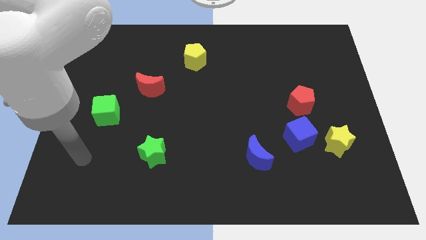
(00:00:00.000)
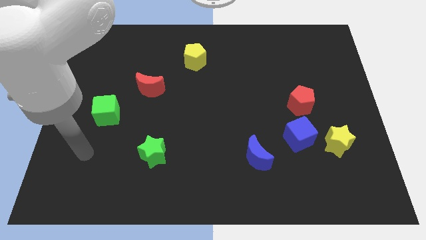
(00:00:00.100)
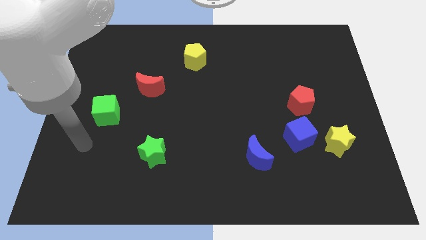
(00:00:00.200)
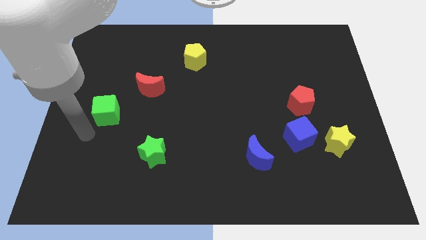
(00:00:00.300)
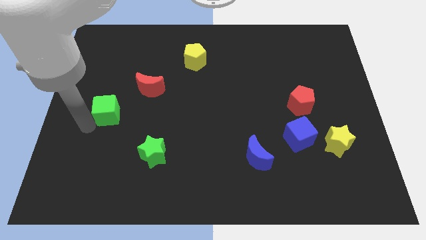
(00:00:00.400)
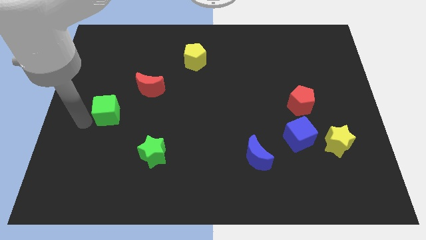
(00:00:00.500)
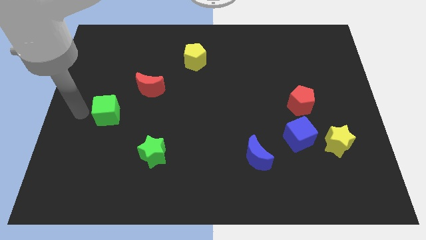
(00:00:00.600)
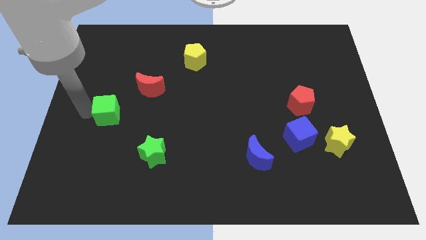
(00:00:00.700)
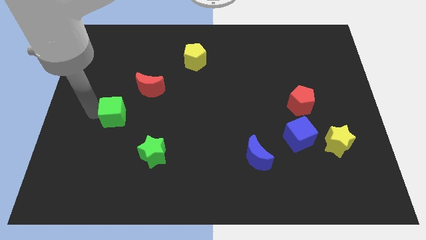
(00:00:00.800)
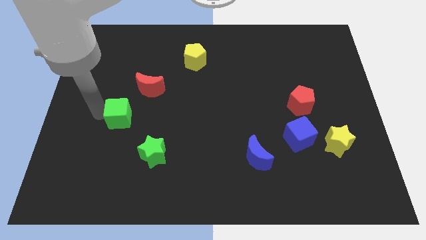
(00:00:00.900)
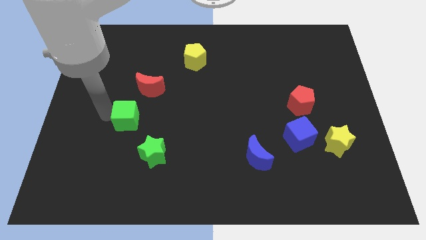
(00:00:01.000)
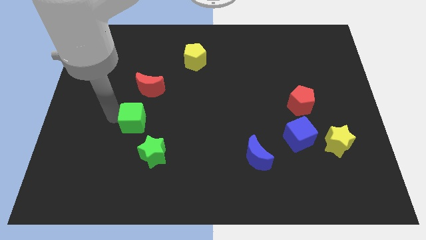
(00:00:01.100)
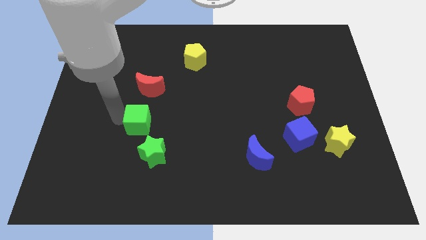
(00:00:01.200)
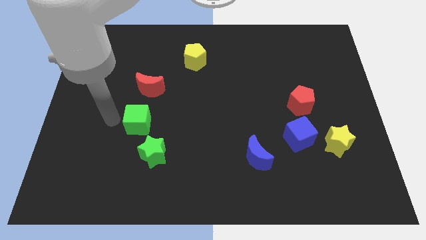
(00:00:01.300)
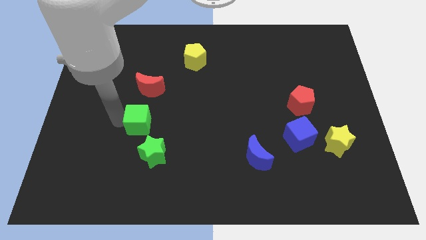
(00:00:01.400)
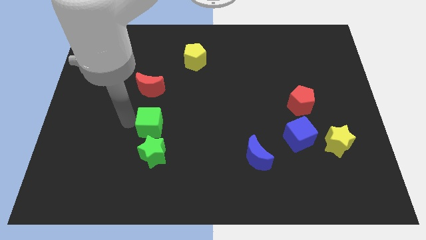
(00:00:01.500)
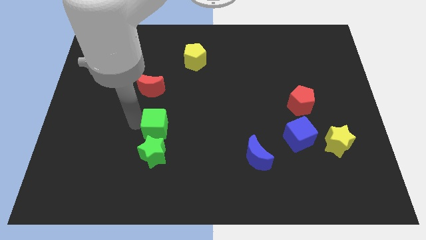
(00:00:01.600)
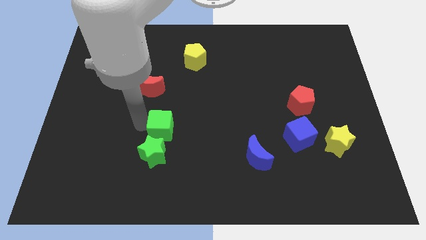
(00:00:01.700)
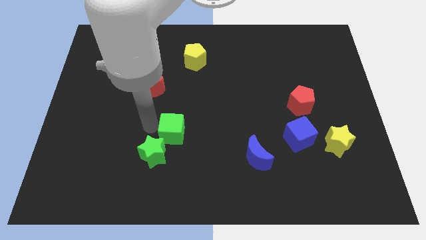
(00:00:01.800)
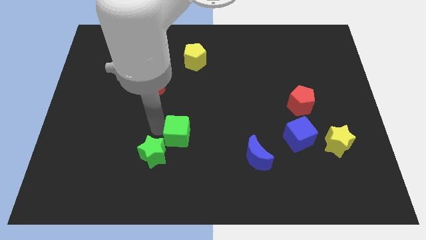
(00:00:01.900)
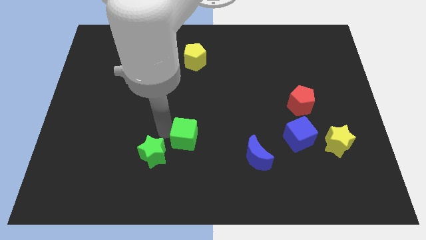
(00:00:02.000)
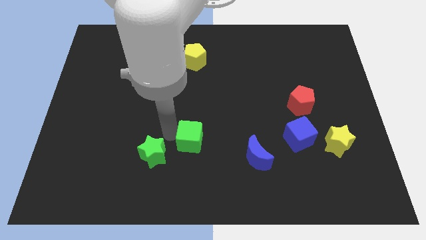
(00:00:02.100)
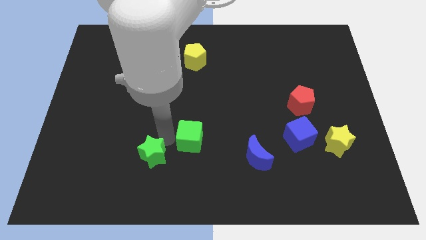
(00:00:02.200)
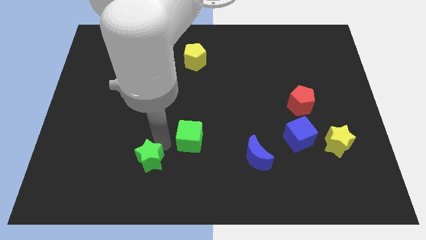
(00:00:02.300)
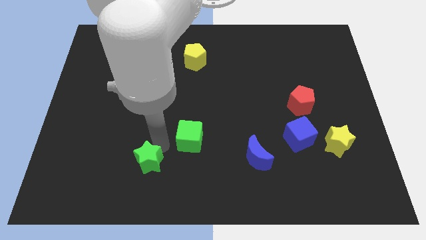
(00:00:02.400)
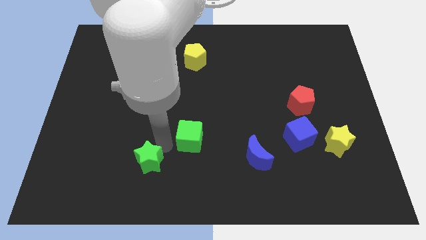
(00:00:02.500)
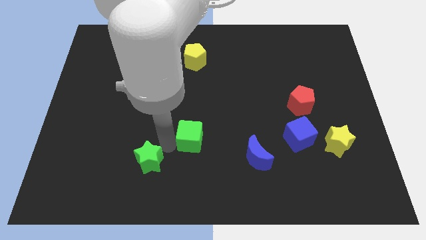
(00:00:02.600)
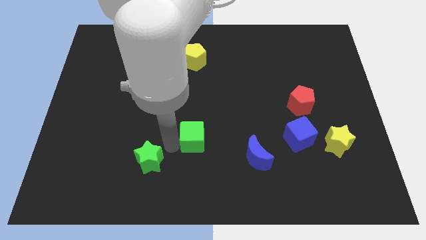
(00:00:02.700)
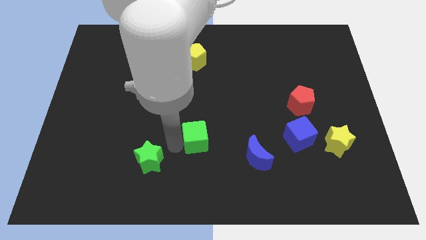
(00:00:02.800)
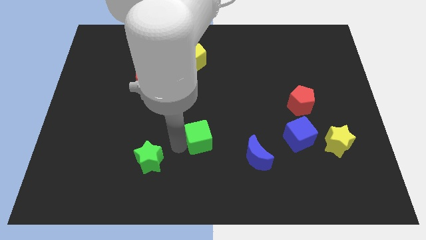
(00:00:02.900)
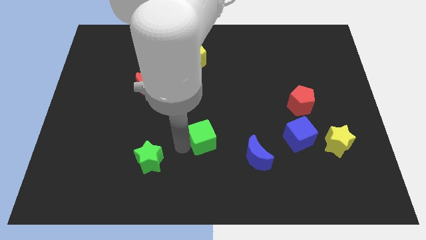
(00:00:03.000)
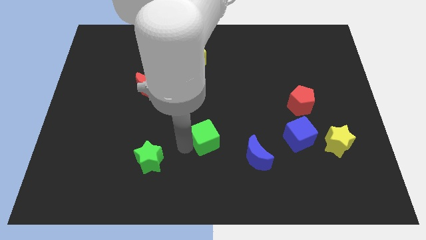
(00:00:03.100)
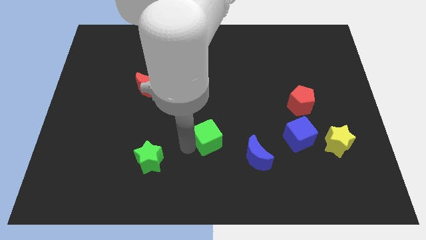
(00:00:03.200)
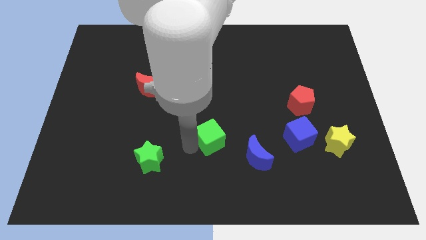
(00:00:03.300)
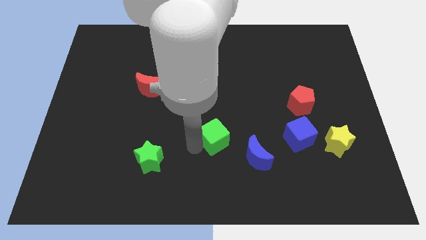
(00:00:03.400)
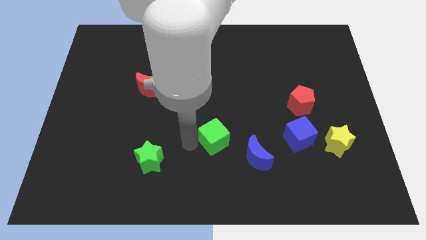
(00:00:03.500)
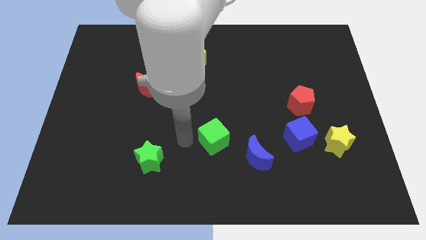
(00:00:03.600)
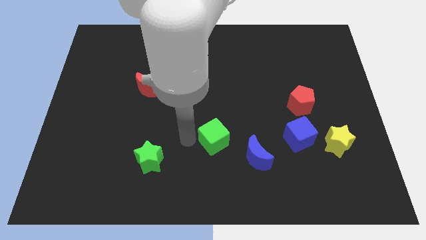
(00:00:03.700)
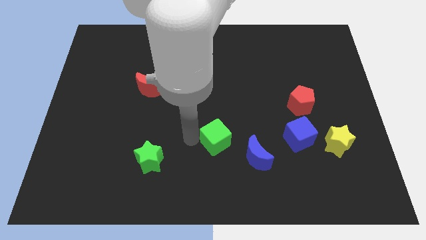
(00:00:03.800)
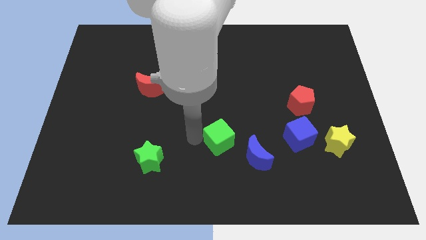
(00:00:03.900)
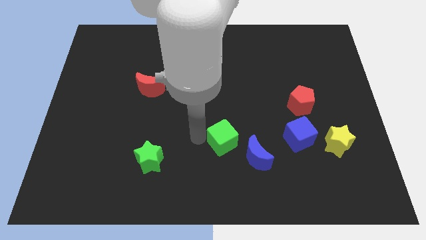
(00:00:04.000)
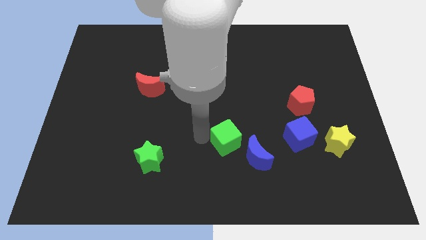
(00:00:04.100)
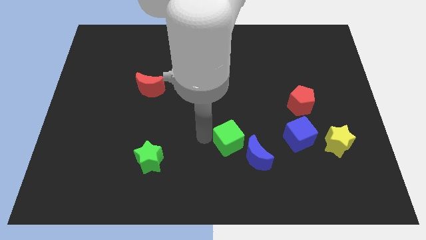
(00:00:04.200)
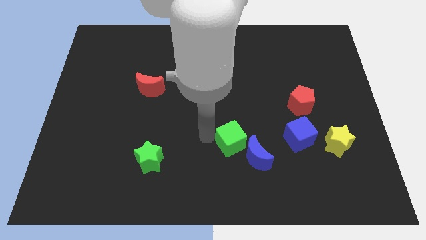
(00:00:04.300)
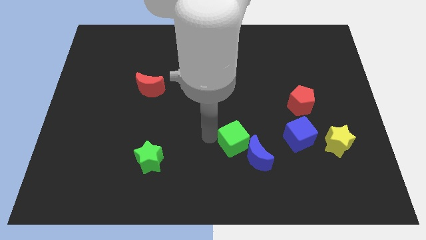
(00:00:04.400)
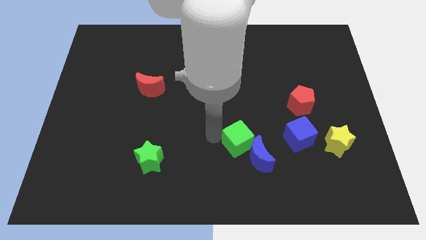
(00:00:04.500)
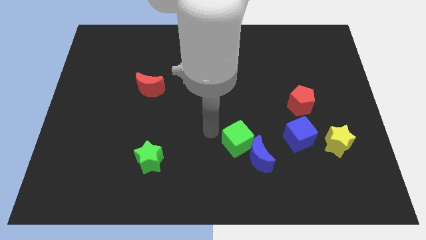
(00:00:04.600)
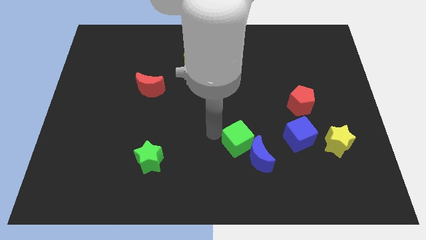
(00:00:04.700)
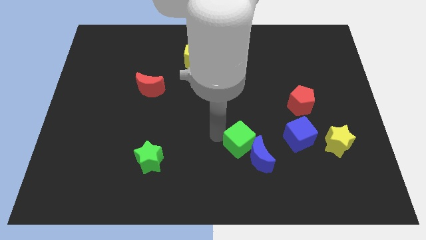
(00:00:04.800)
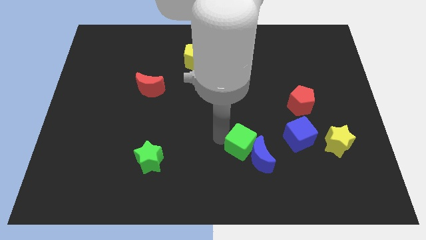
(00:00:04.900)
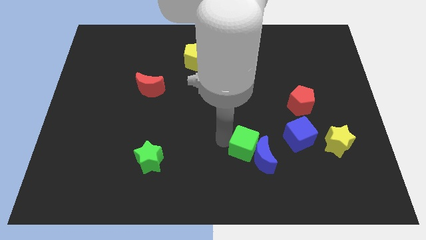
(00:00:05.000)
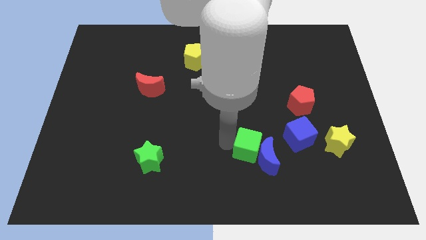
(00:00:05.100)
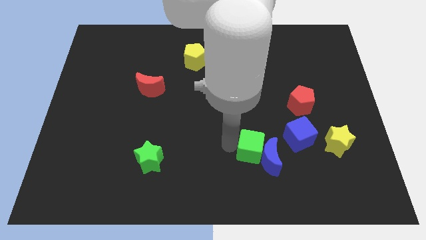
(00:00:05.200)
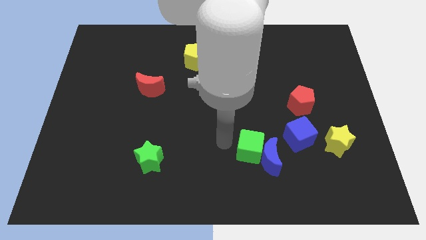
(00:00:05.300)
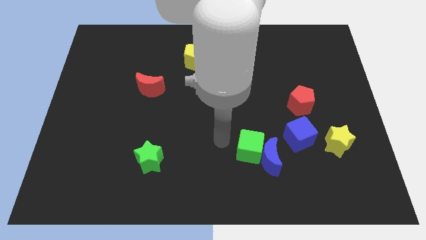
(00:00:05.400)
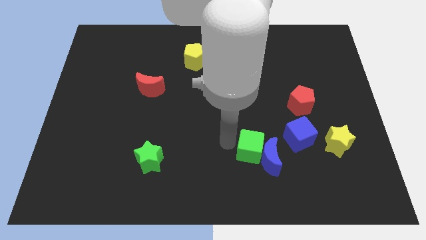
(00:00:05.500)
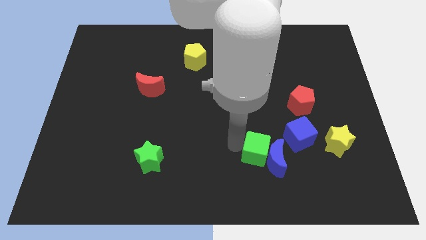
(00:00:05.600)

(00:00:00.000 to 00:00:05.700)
push the green cube to the bottom left of the blue cube

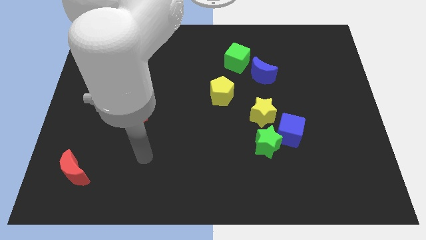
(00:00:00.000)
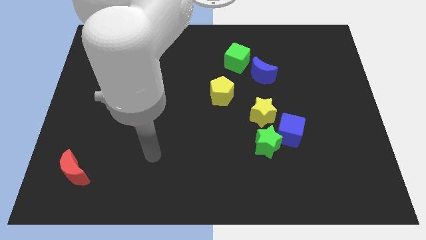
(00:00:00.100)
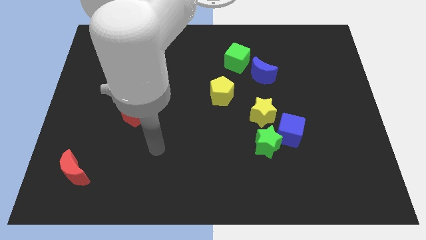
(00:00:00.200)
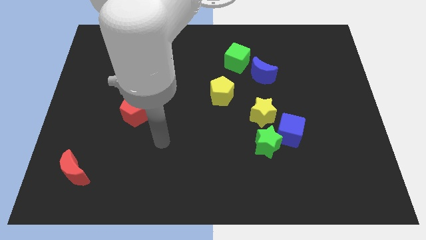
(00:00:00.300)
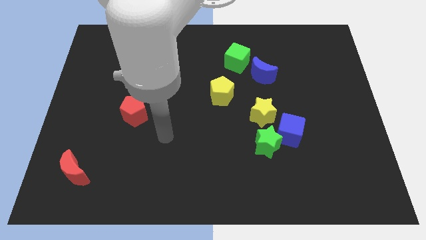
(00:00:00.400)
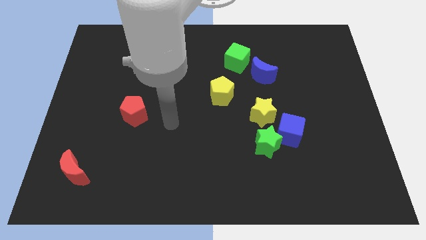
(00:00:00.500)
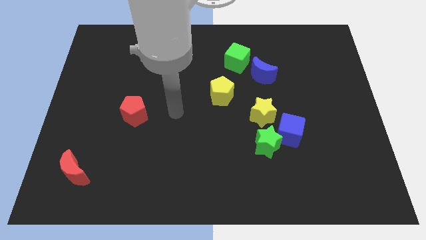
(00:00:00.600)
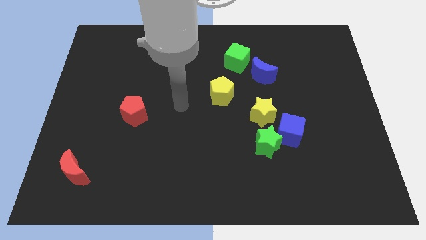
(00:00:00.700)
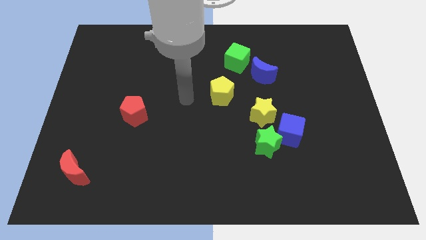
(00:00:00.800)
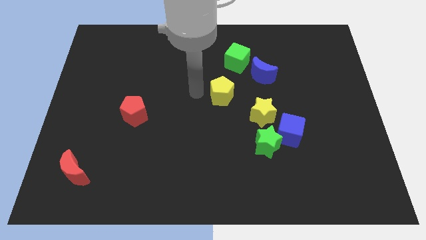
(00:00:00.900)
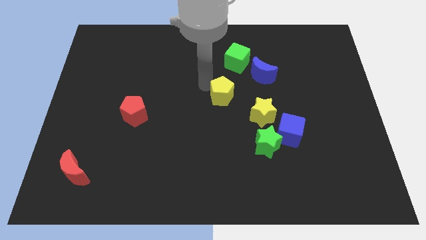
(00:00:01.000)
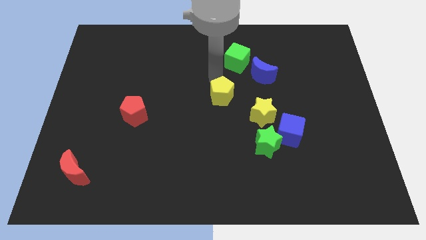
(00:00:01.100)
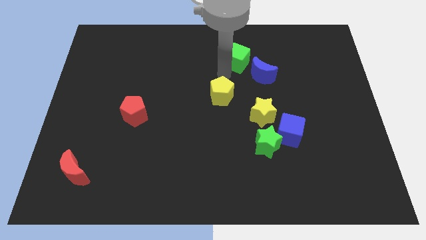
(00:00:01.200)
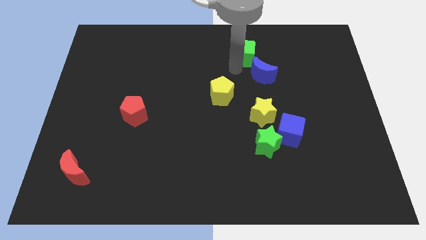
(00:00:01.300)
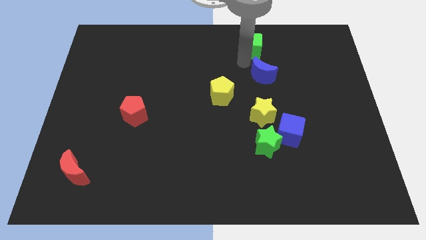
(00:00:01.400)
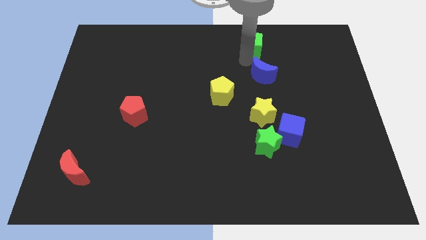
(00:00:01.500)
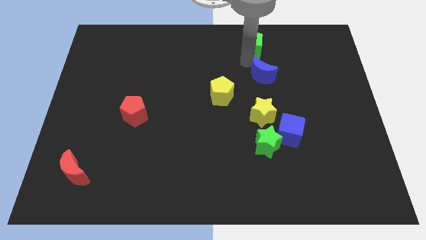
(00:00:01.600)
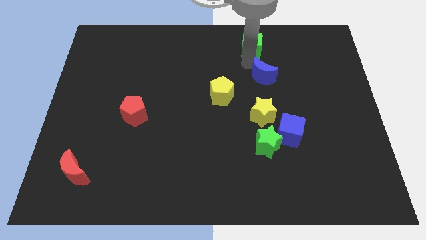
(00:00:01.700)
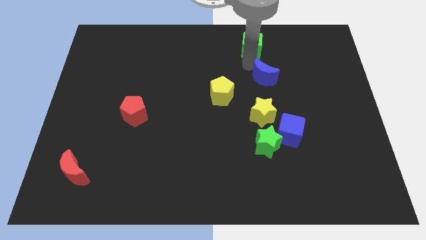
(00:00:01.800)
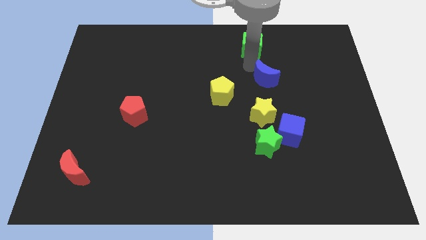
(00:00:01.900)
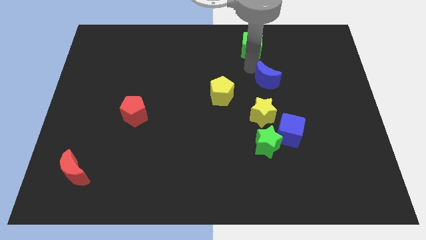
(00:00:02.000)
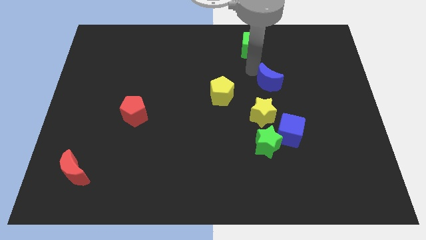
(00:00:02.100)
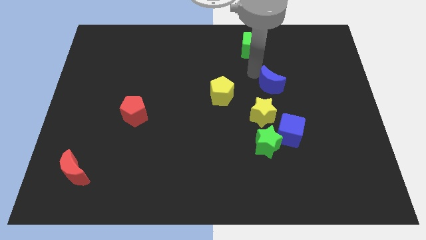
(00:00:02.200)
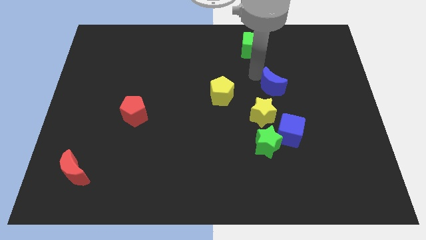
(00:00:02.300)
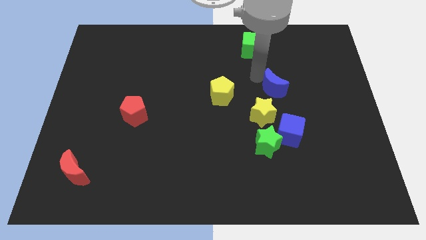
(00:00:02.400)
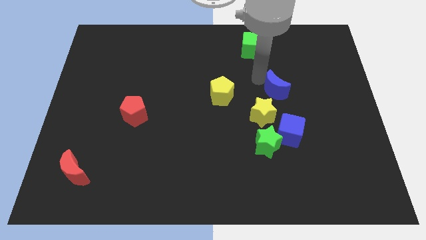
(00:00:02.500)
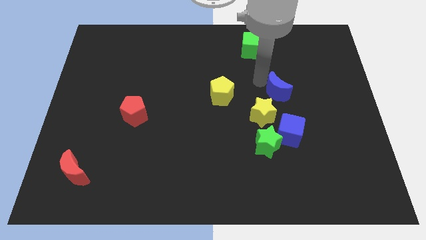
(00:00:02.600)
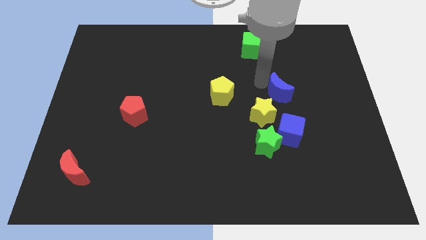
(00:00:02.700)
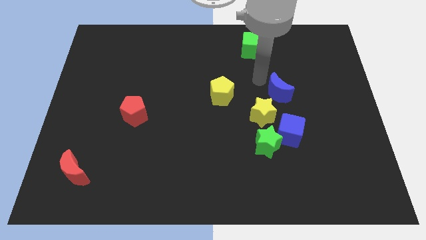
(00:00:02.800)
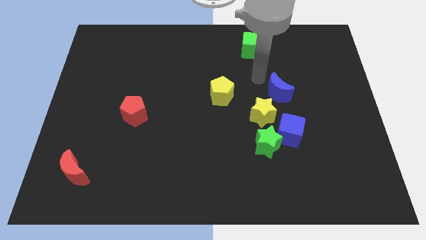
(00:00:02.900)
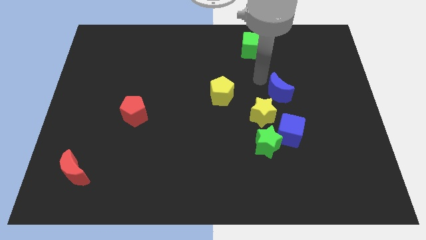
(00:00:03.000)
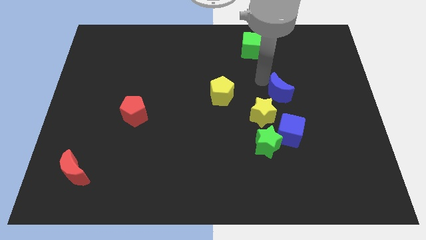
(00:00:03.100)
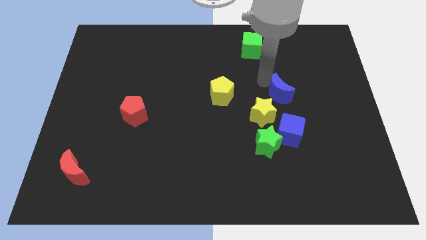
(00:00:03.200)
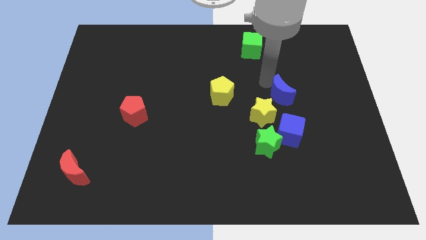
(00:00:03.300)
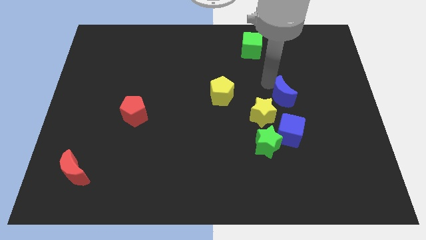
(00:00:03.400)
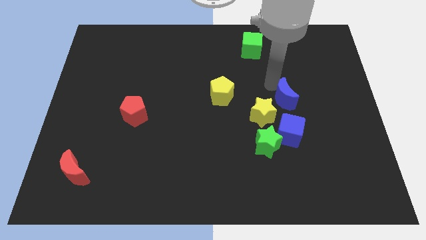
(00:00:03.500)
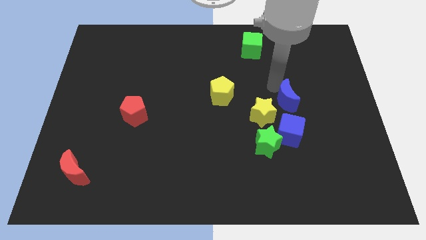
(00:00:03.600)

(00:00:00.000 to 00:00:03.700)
move the blue moon to the right side of the yellow star
